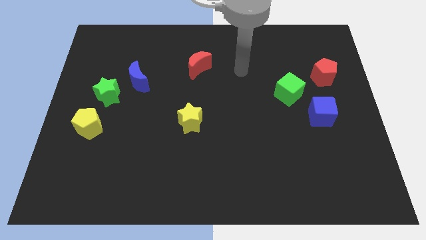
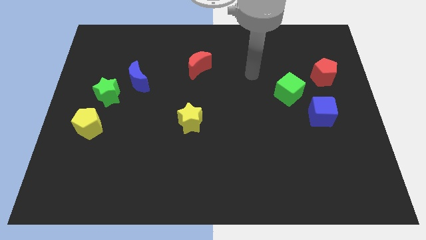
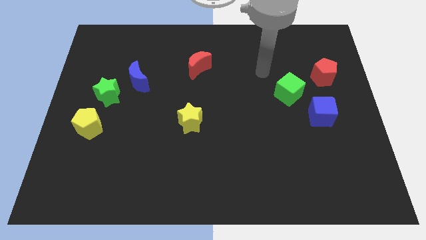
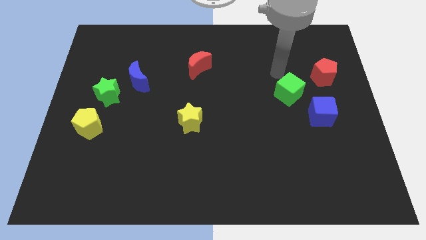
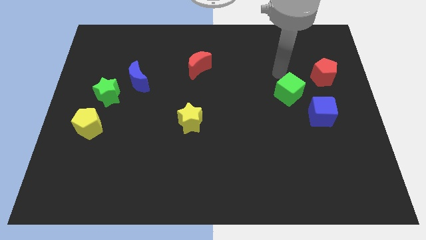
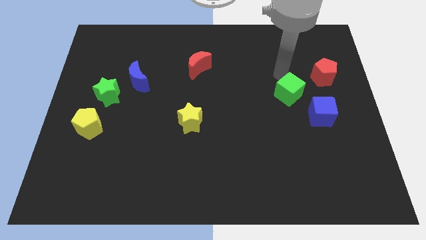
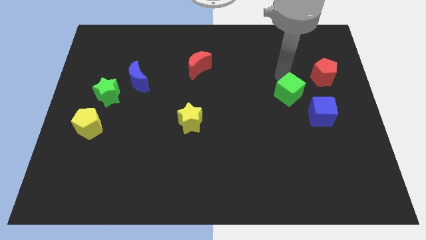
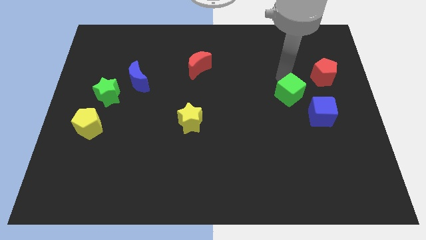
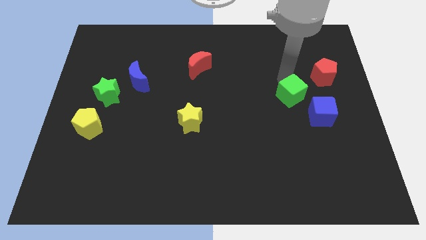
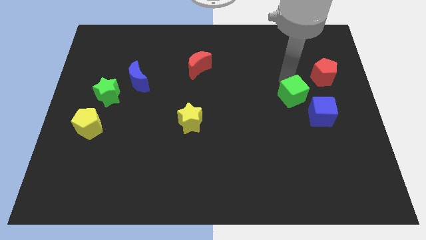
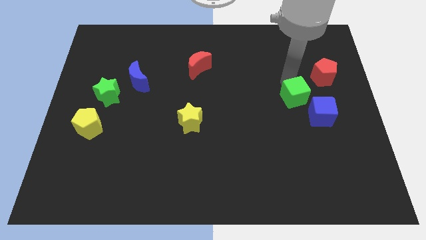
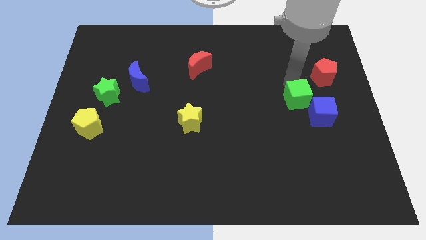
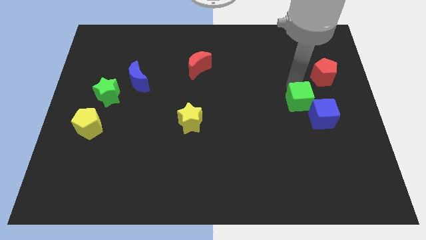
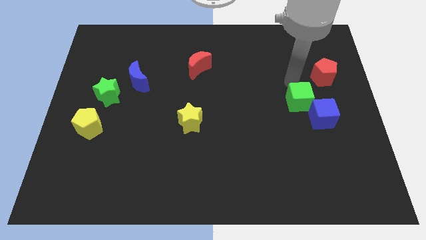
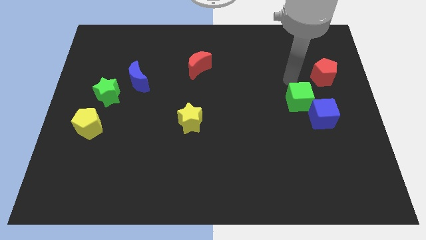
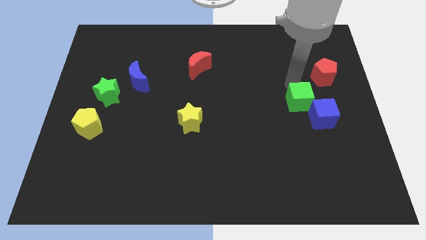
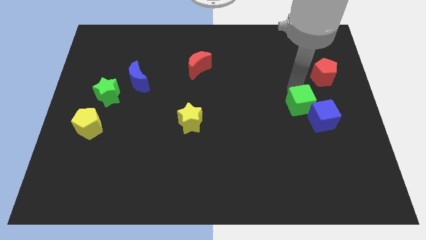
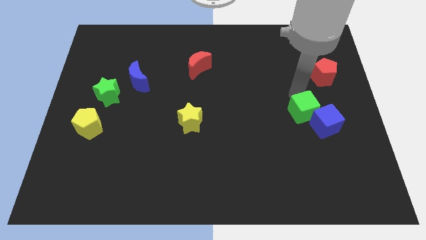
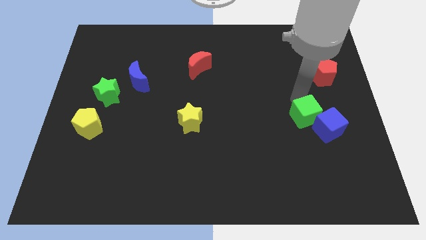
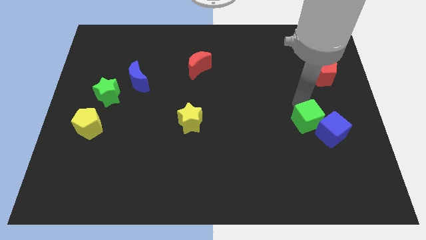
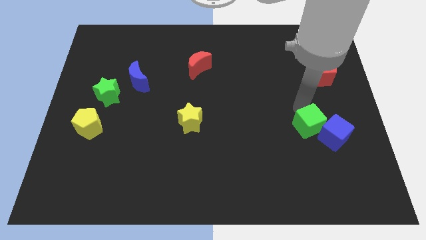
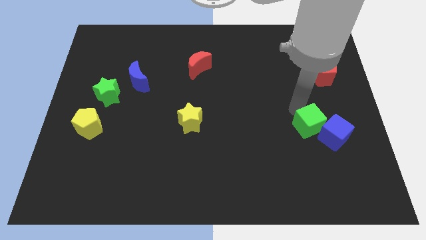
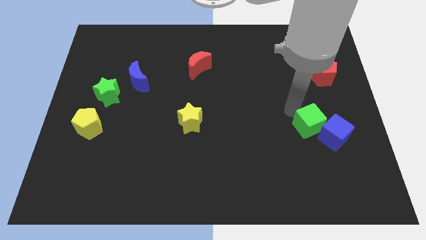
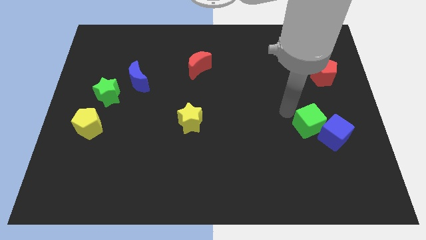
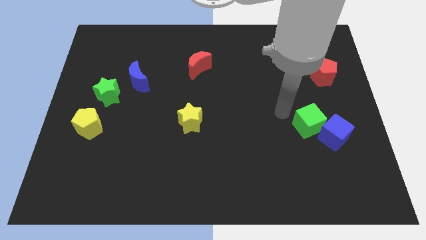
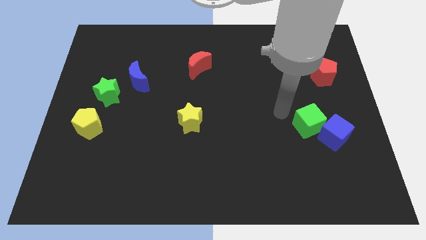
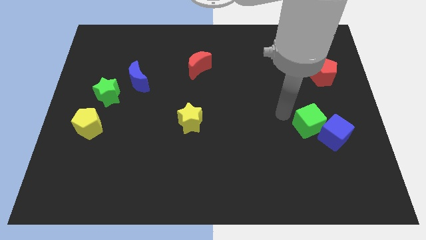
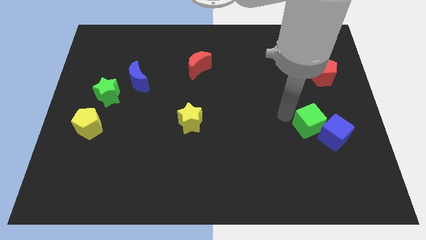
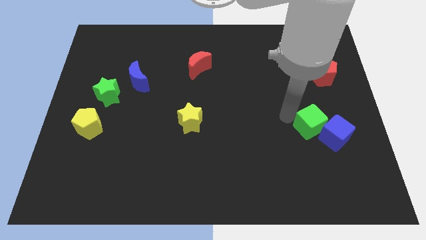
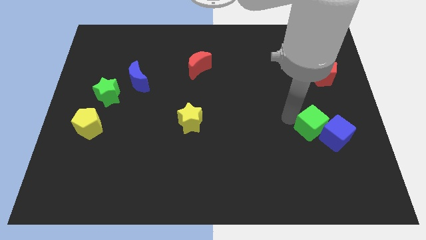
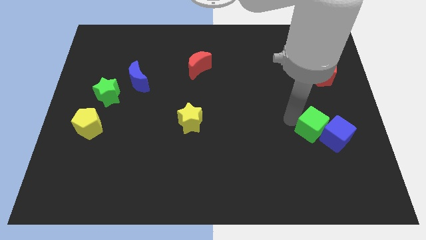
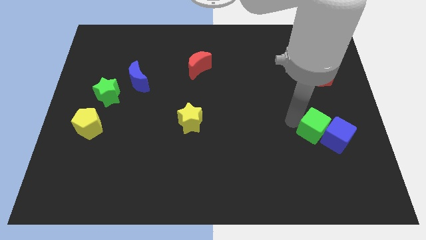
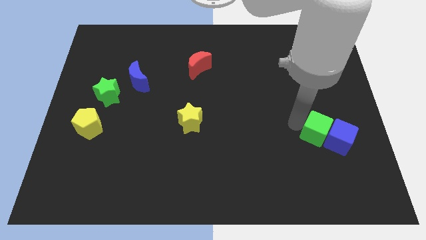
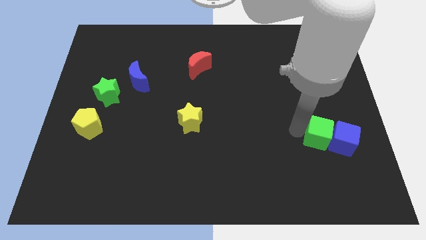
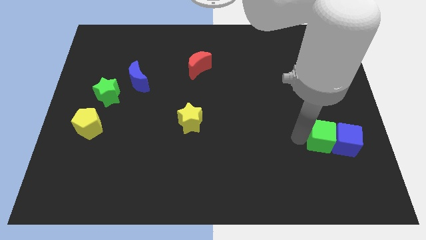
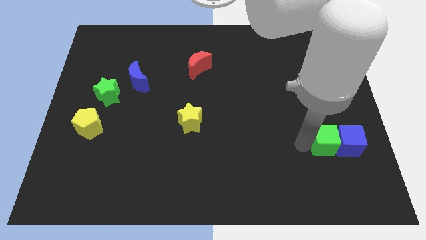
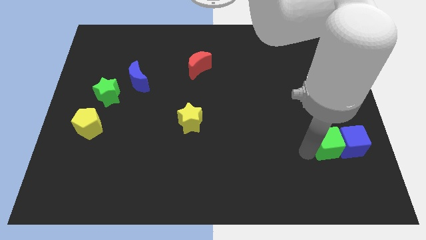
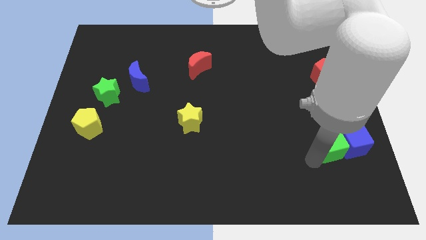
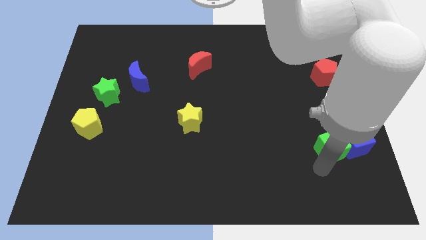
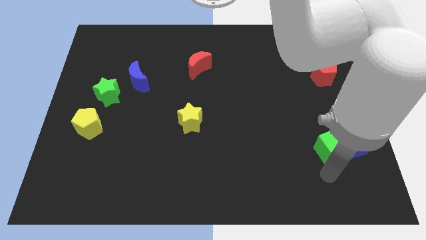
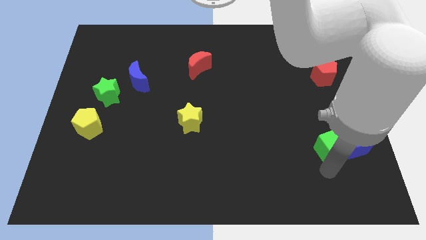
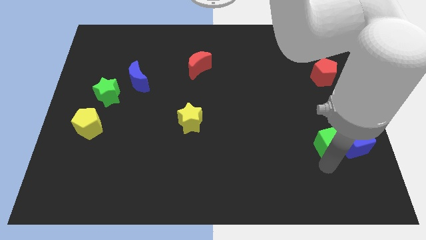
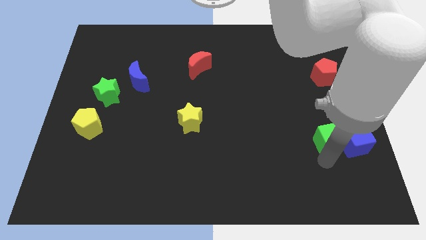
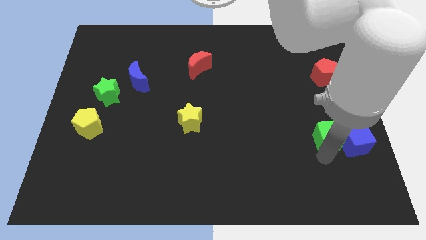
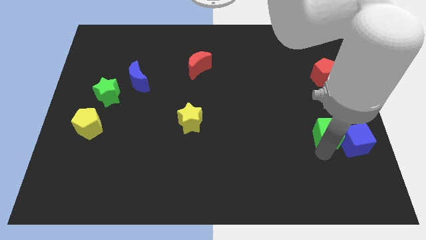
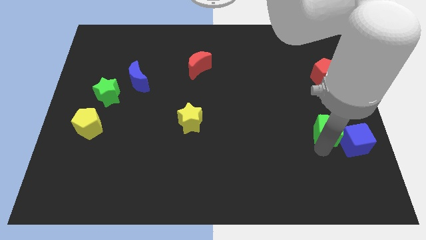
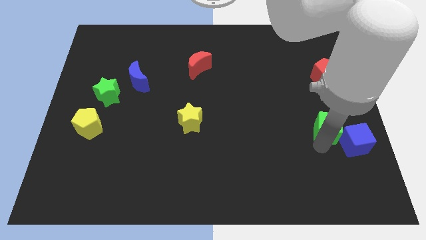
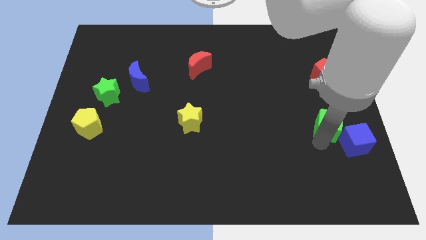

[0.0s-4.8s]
push the green cube to the bottom side of the red pentagon

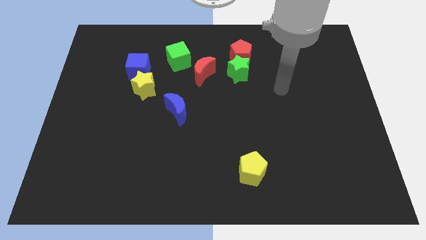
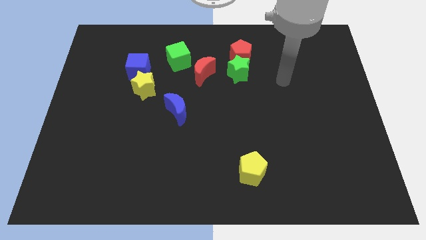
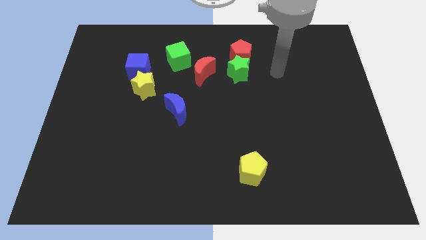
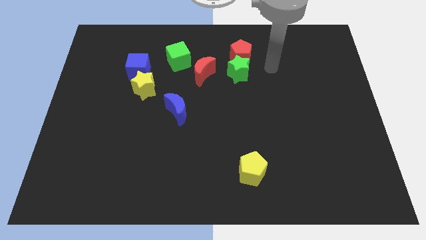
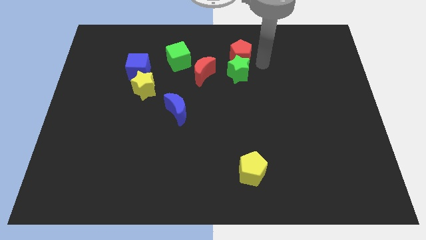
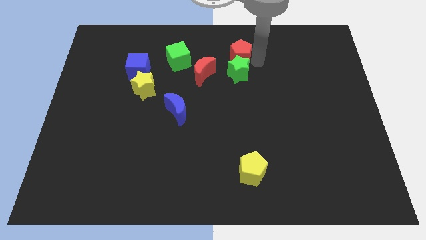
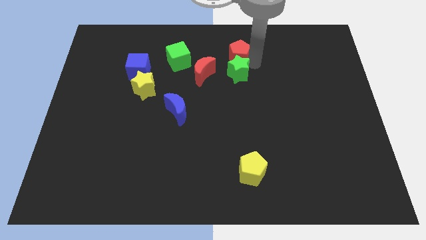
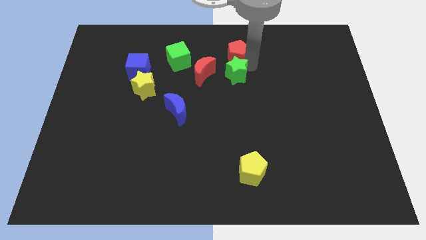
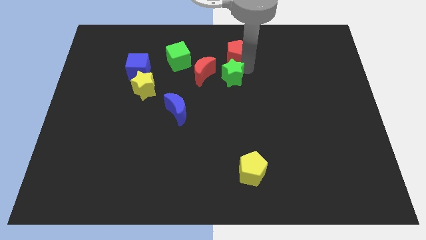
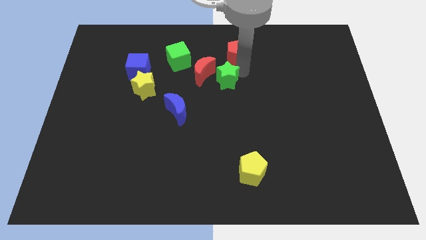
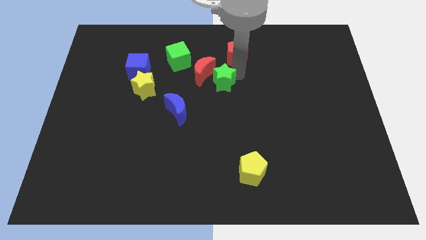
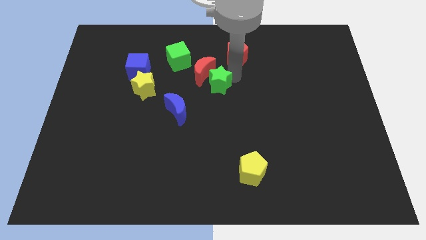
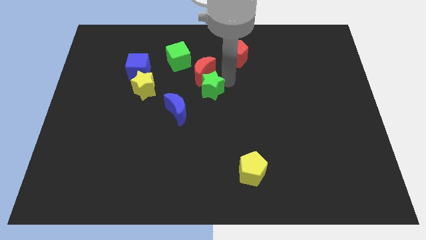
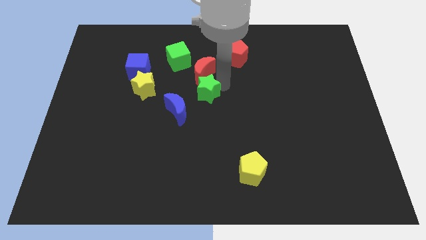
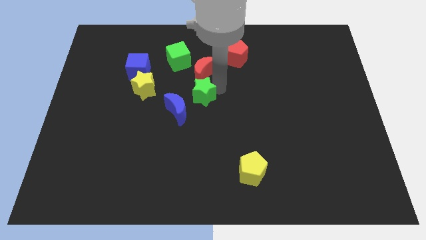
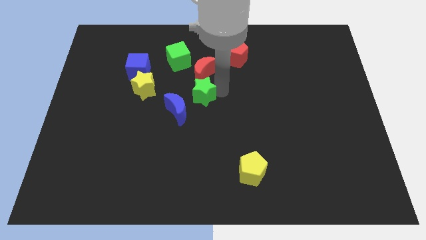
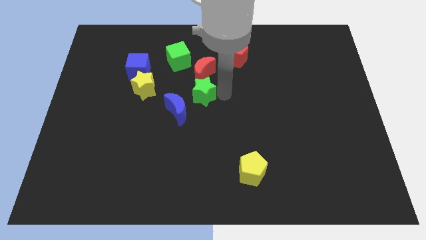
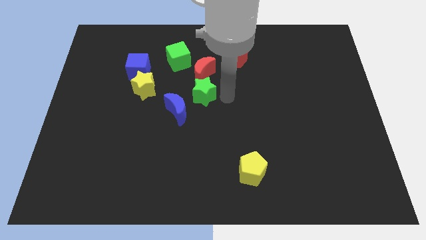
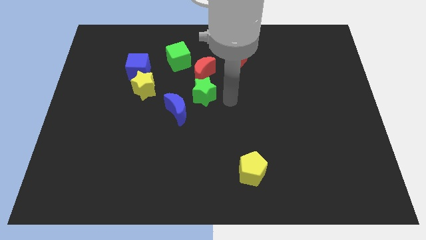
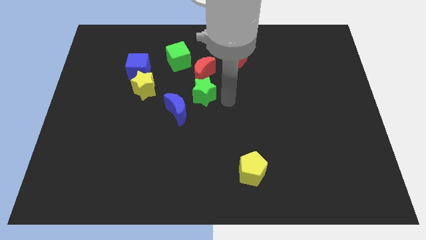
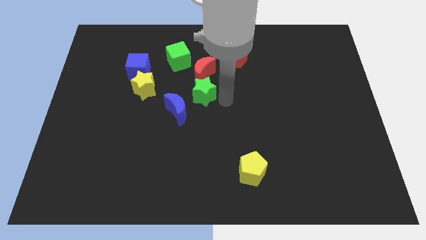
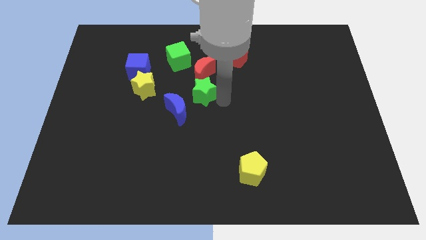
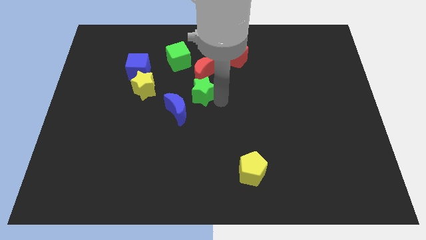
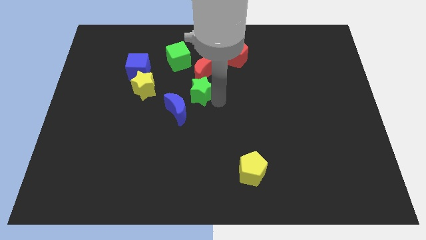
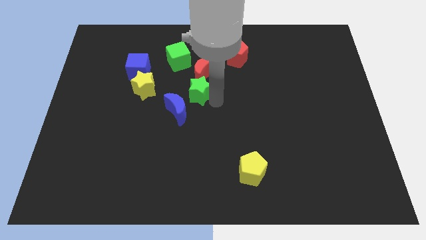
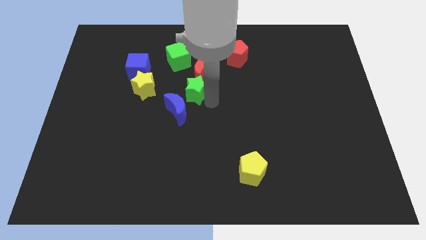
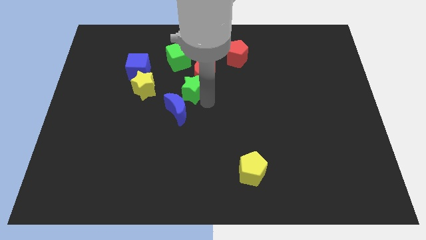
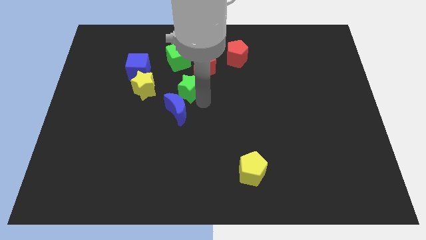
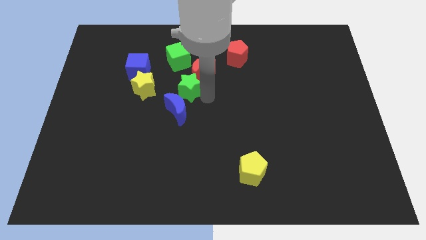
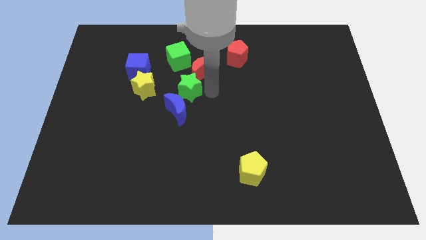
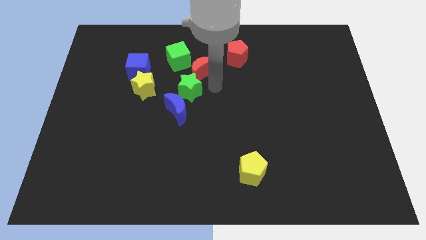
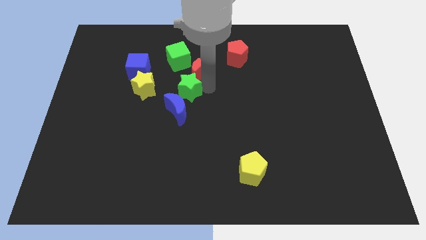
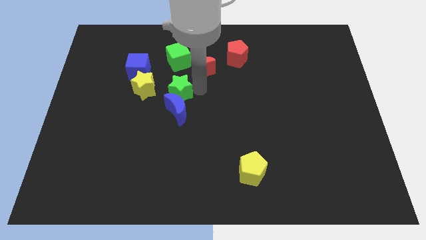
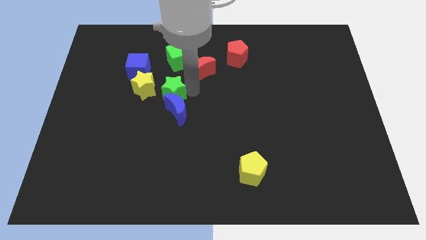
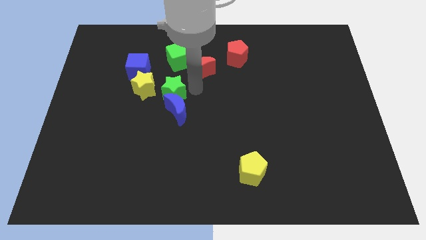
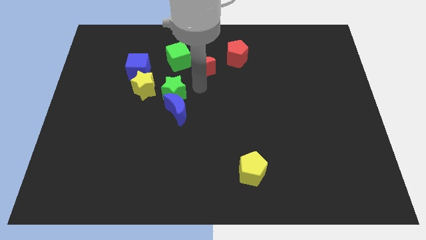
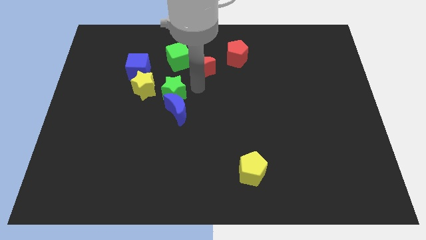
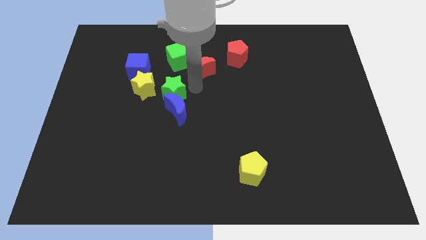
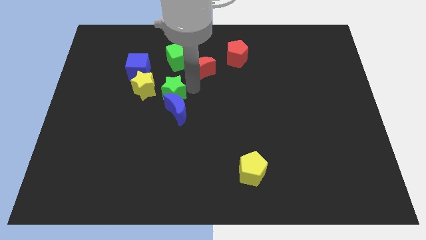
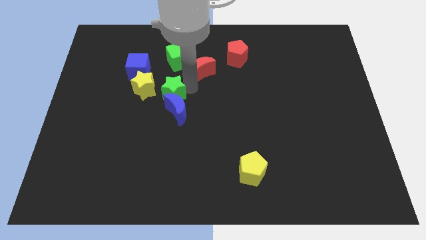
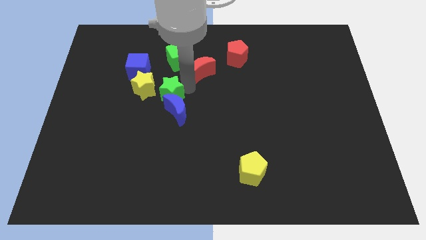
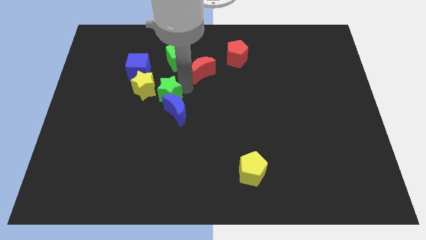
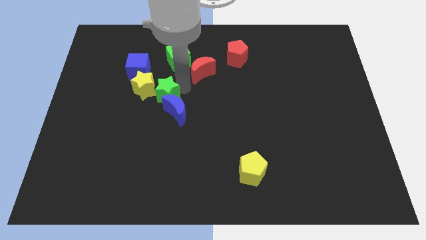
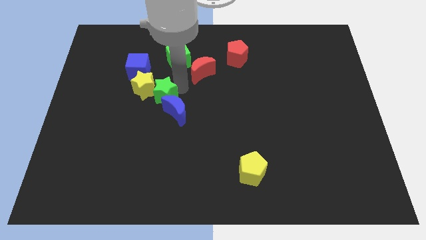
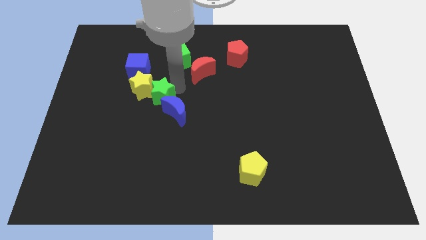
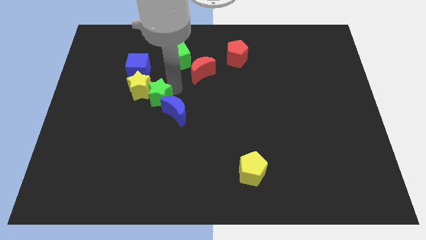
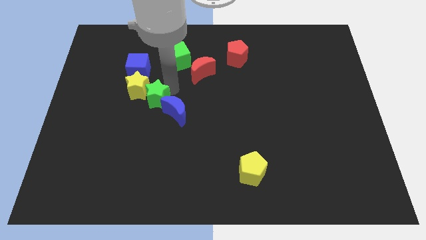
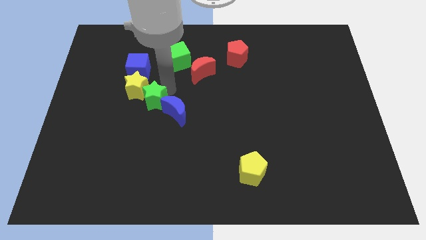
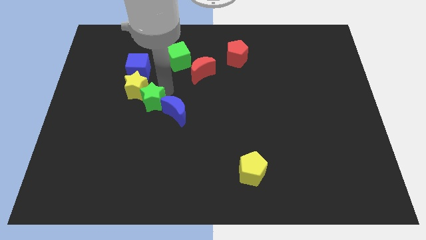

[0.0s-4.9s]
slide the green star to the bottom side of the yellow star
